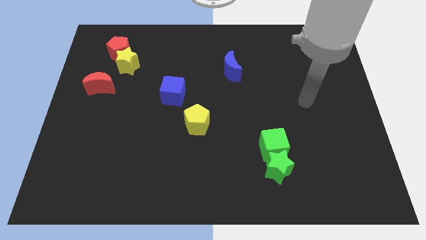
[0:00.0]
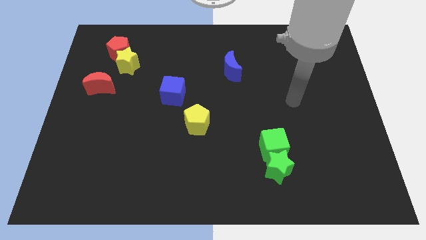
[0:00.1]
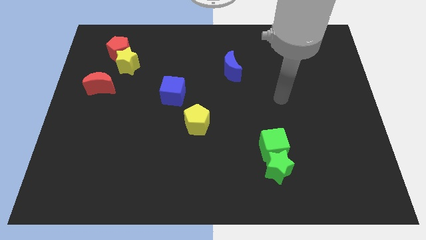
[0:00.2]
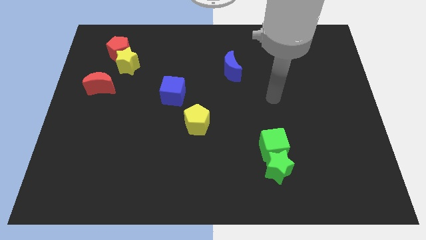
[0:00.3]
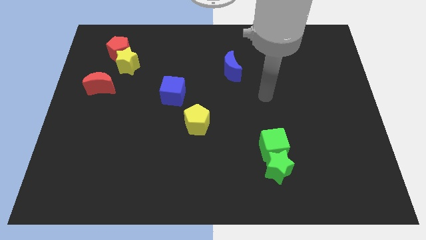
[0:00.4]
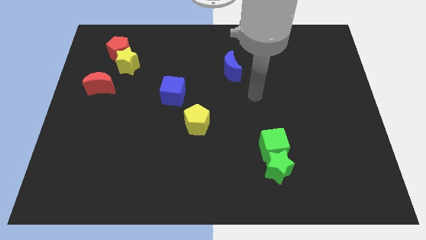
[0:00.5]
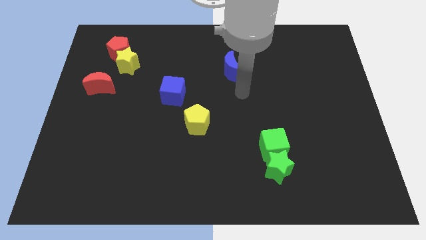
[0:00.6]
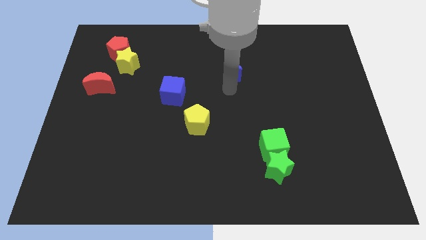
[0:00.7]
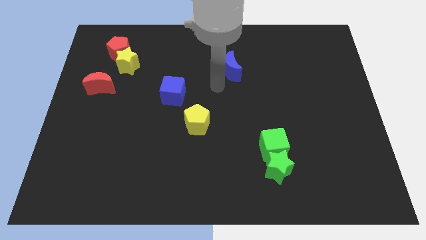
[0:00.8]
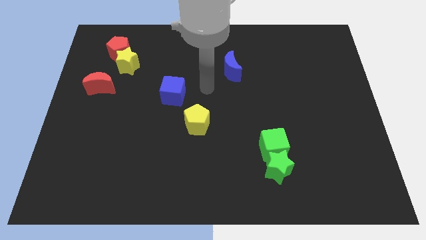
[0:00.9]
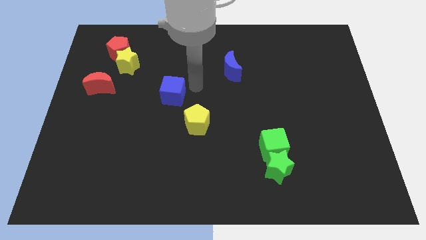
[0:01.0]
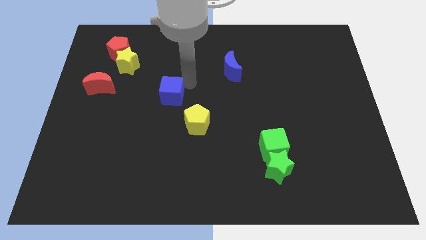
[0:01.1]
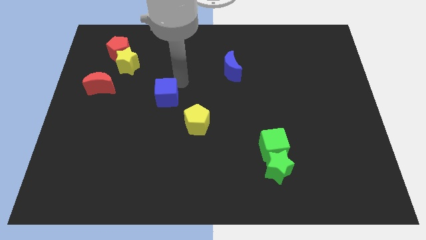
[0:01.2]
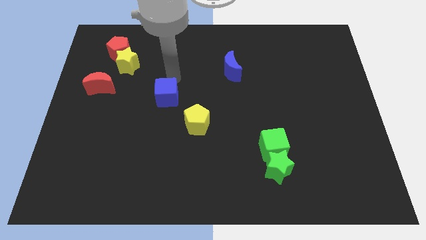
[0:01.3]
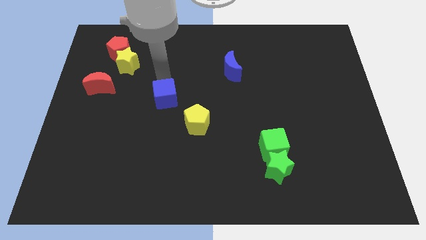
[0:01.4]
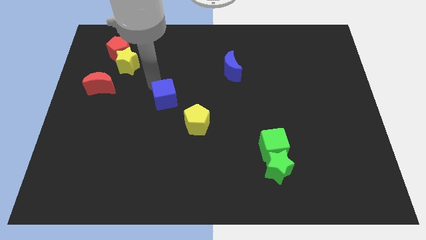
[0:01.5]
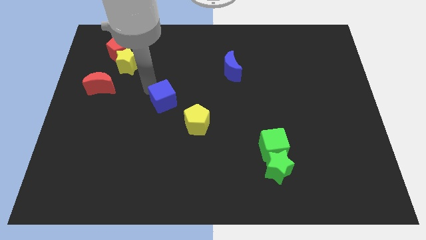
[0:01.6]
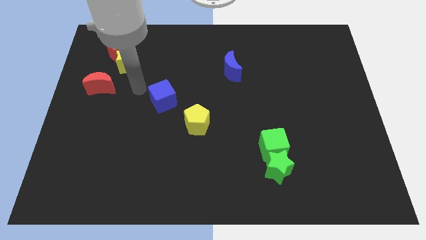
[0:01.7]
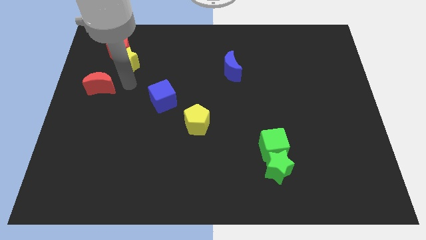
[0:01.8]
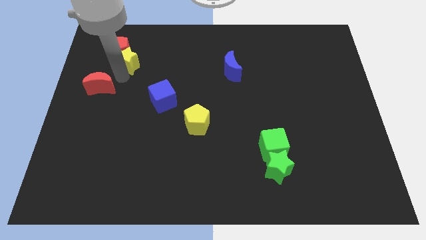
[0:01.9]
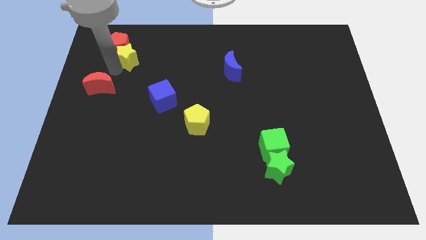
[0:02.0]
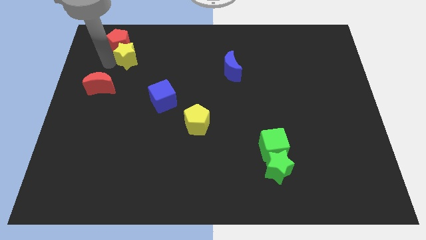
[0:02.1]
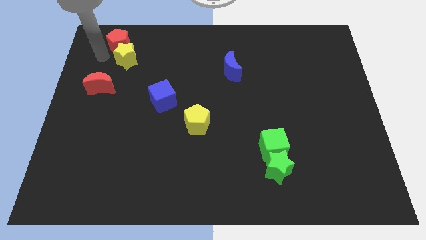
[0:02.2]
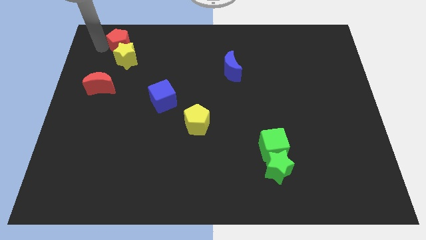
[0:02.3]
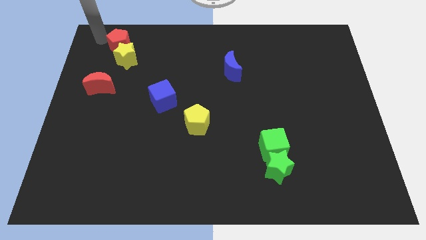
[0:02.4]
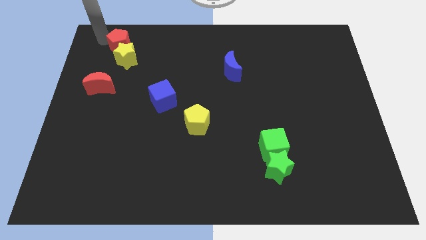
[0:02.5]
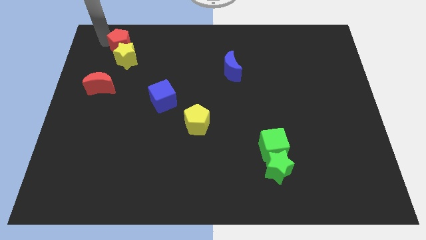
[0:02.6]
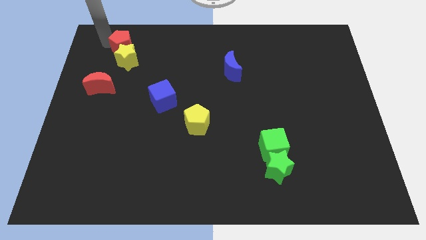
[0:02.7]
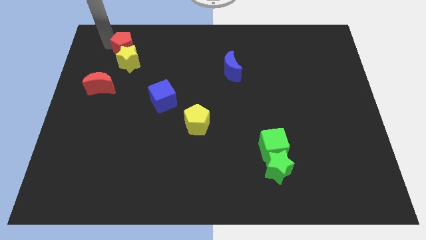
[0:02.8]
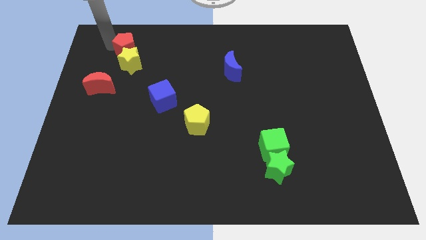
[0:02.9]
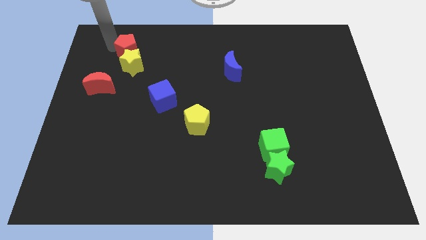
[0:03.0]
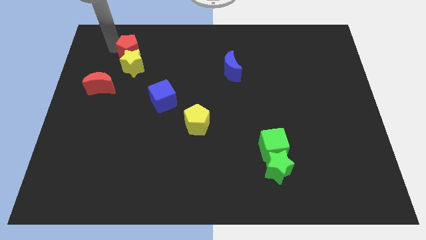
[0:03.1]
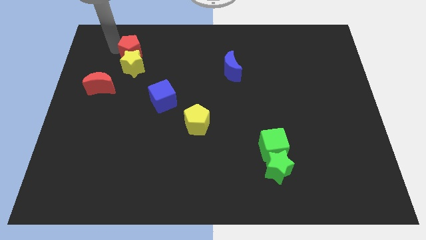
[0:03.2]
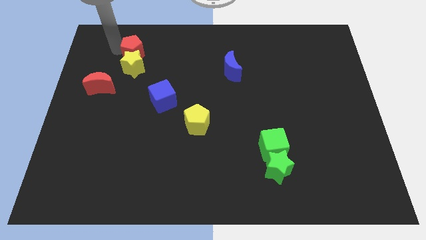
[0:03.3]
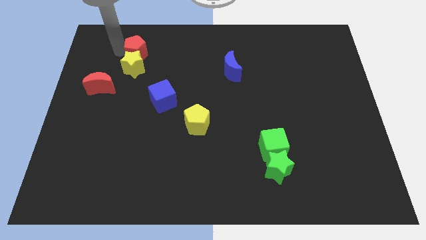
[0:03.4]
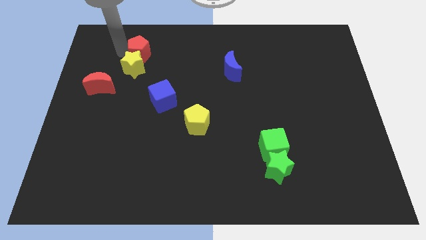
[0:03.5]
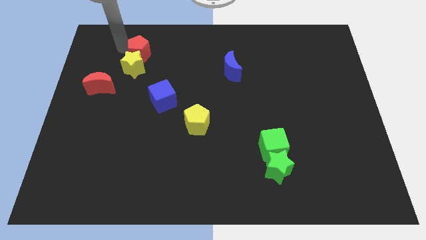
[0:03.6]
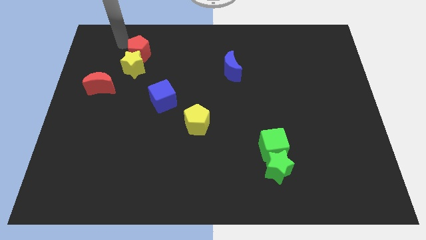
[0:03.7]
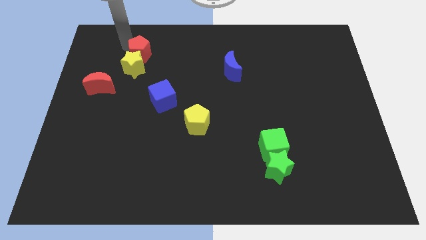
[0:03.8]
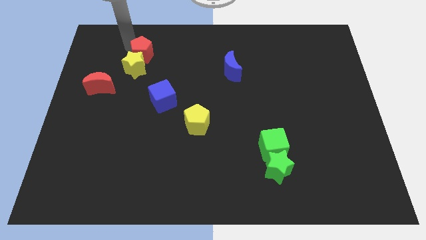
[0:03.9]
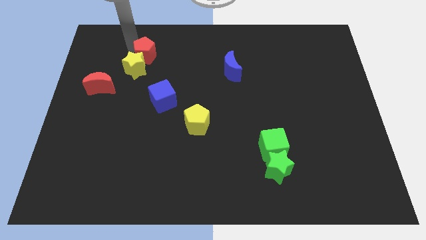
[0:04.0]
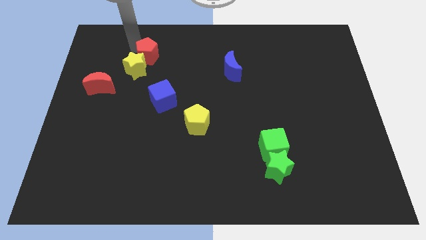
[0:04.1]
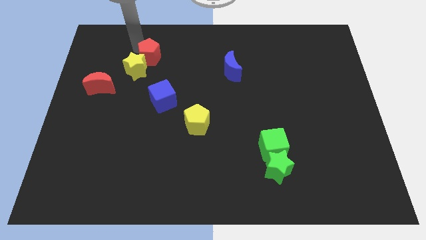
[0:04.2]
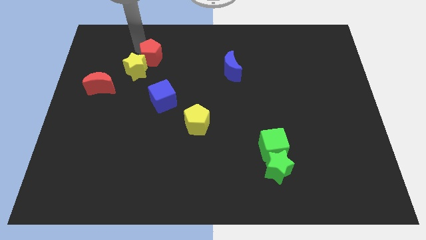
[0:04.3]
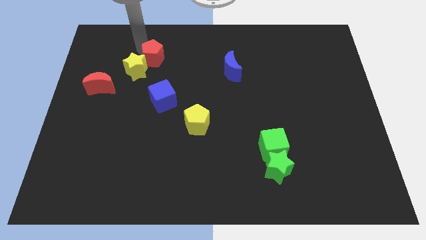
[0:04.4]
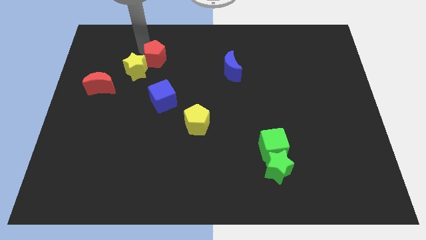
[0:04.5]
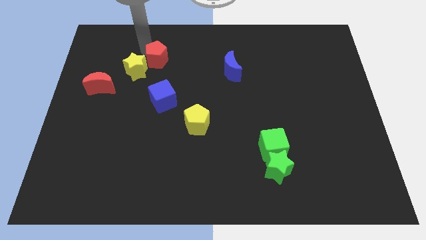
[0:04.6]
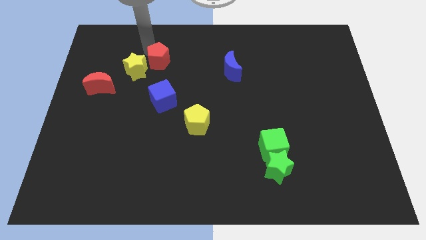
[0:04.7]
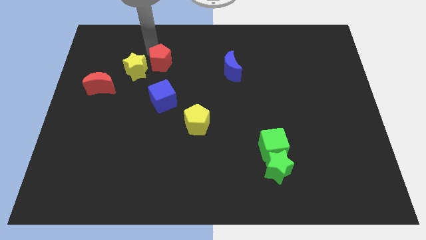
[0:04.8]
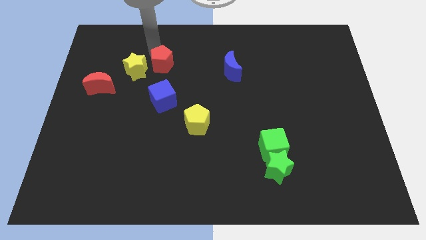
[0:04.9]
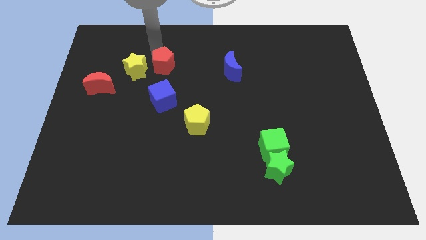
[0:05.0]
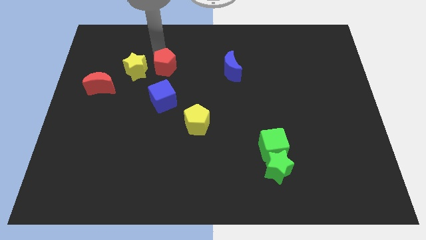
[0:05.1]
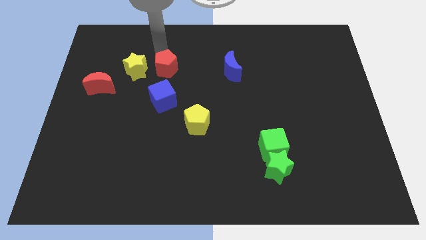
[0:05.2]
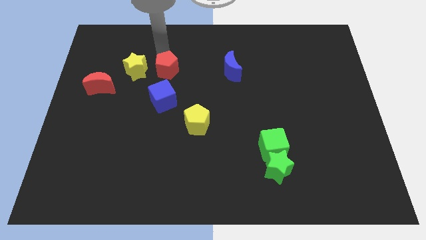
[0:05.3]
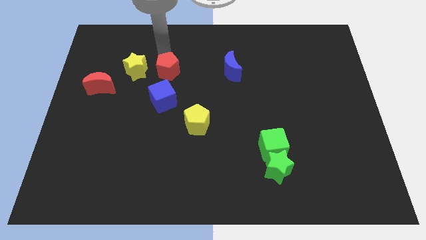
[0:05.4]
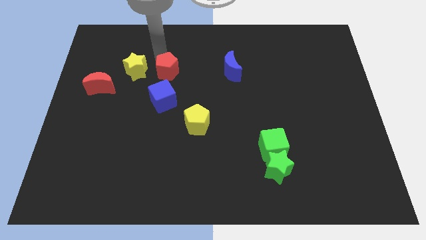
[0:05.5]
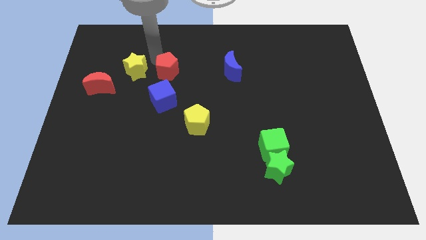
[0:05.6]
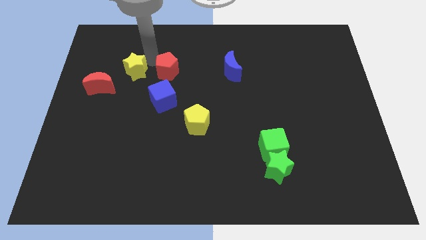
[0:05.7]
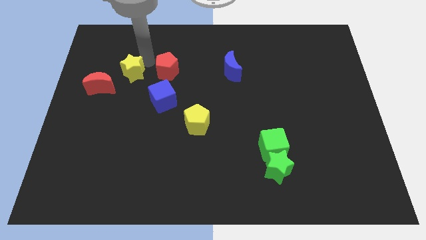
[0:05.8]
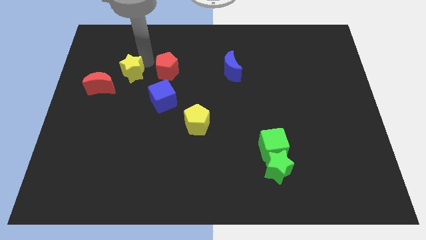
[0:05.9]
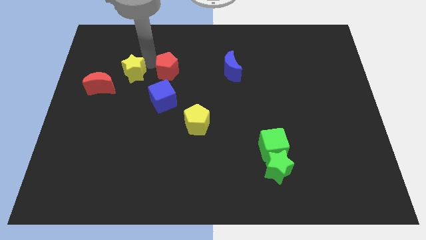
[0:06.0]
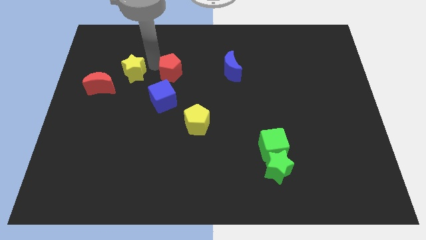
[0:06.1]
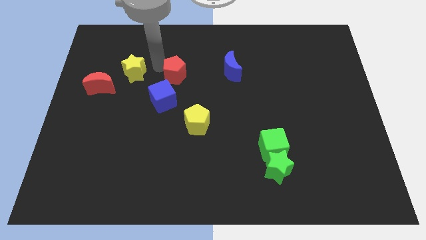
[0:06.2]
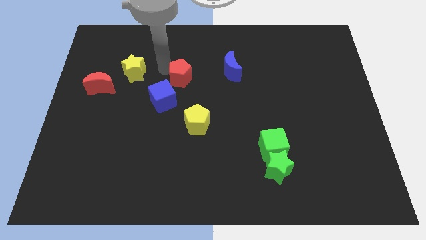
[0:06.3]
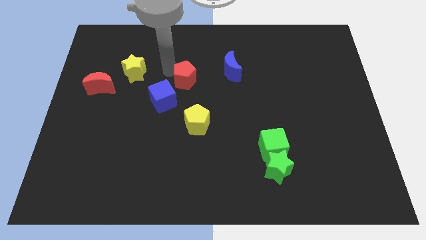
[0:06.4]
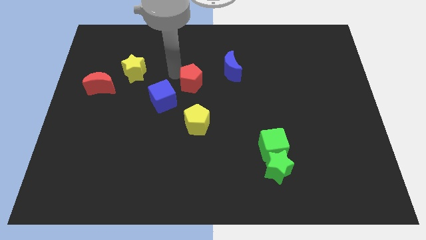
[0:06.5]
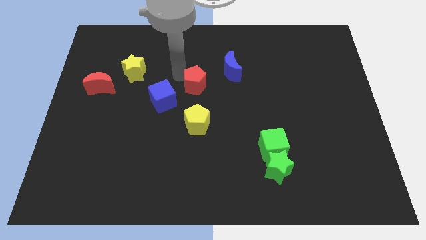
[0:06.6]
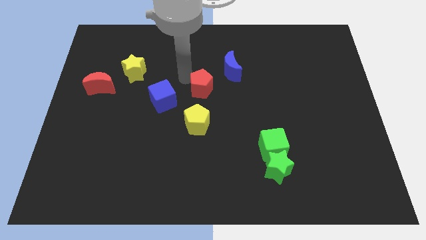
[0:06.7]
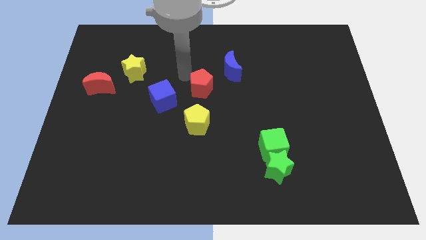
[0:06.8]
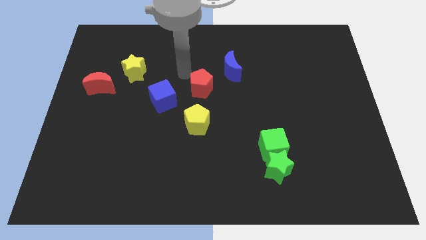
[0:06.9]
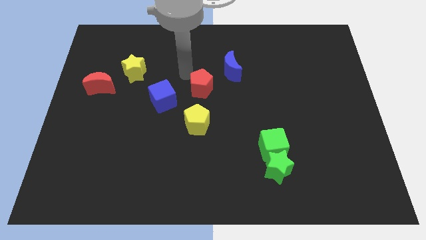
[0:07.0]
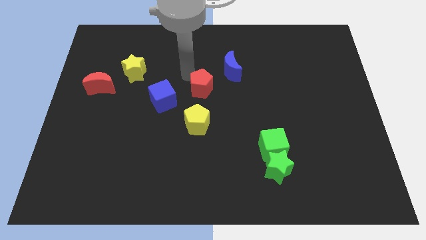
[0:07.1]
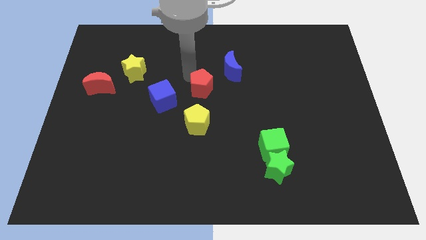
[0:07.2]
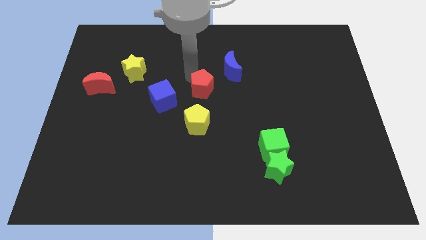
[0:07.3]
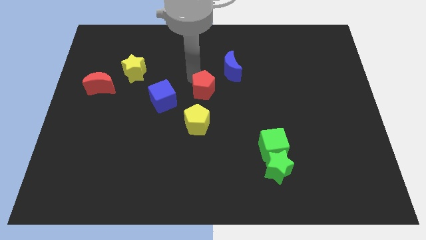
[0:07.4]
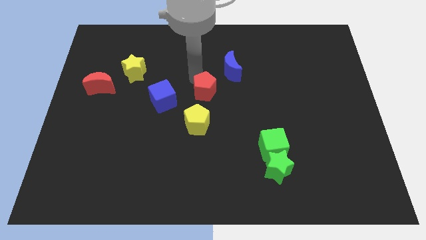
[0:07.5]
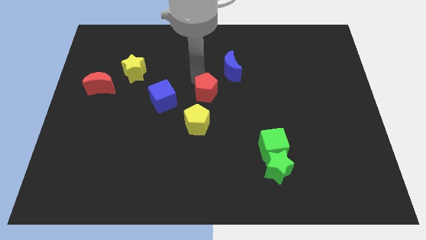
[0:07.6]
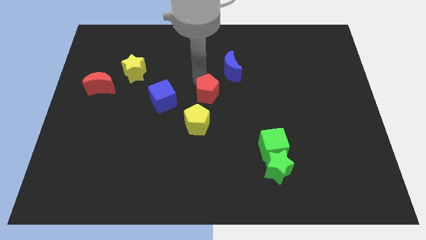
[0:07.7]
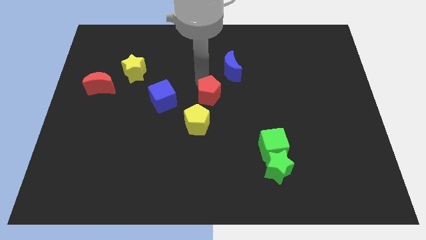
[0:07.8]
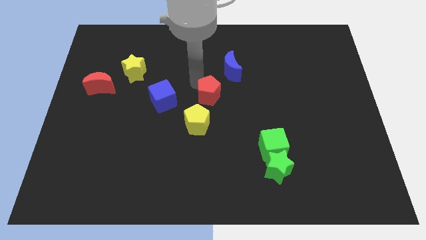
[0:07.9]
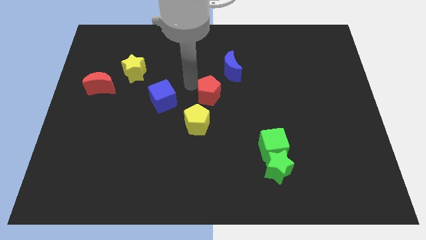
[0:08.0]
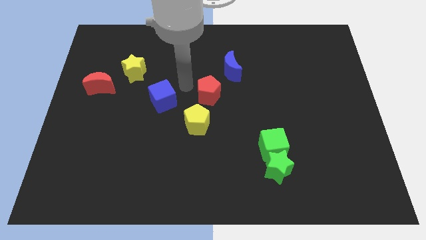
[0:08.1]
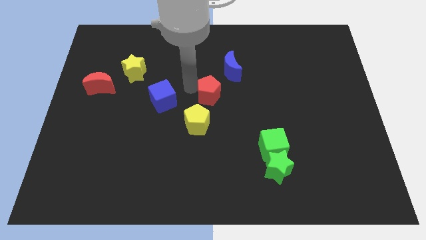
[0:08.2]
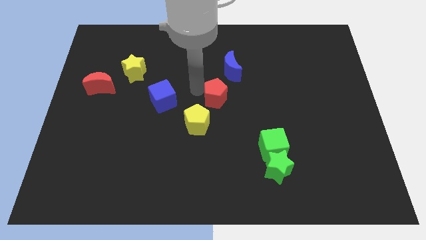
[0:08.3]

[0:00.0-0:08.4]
move the red pentagon to the bottom of the blue moon
